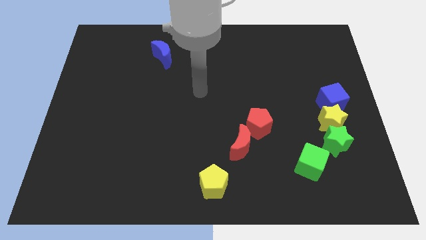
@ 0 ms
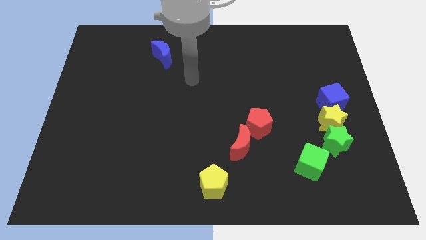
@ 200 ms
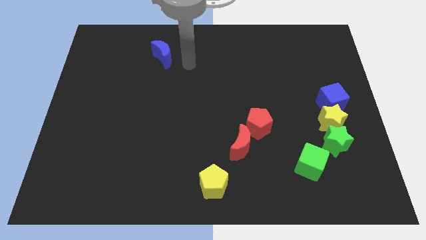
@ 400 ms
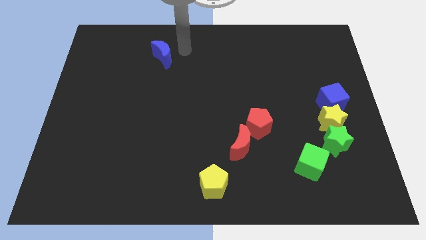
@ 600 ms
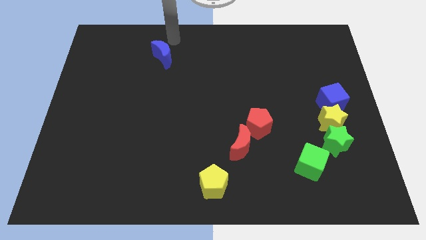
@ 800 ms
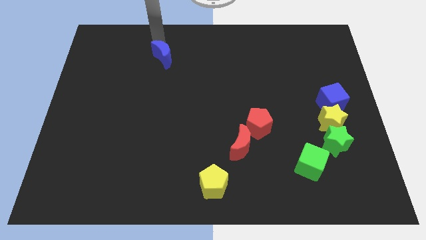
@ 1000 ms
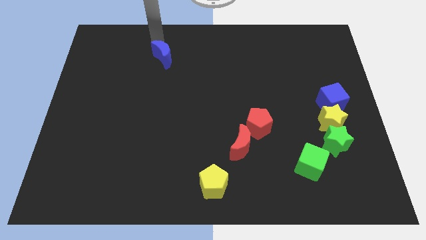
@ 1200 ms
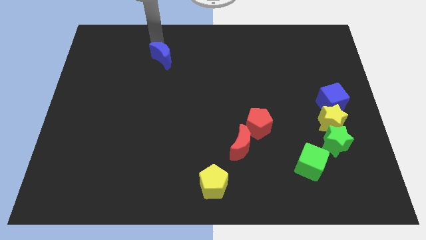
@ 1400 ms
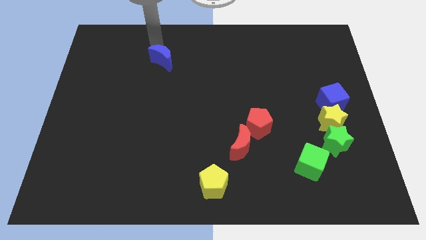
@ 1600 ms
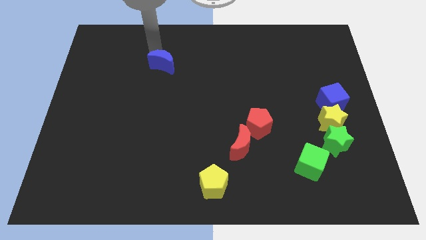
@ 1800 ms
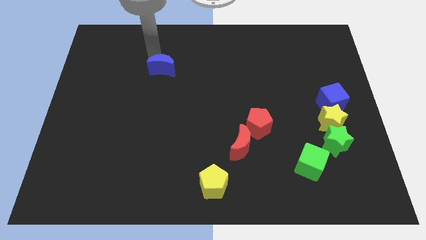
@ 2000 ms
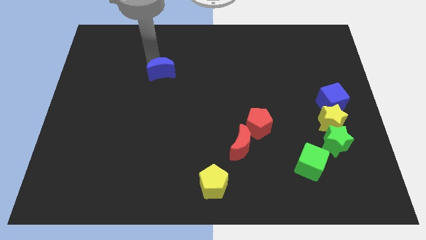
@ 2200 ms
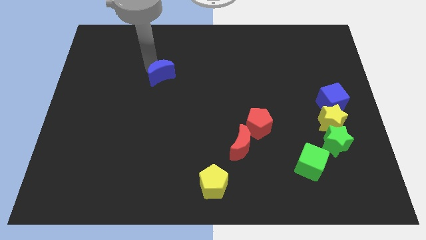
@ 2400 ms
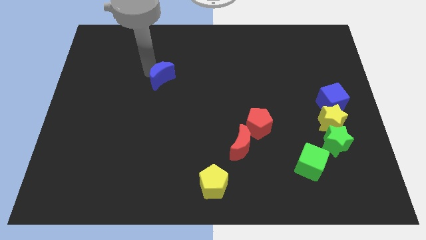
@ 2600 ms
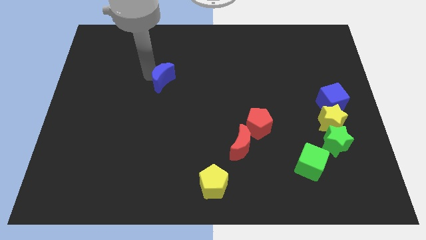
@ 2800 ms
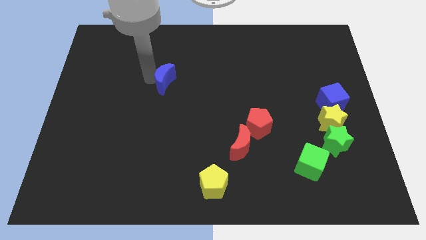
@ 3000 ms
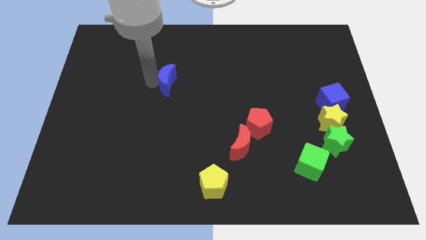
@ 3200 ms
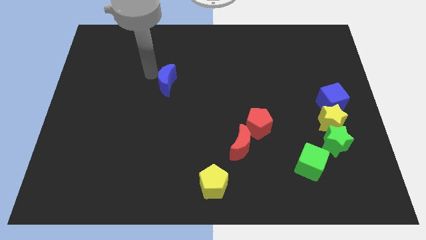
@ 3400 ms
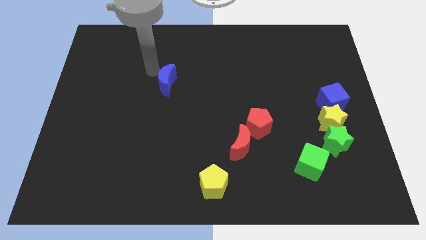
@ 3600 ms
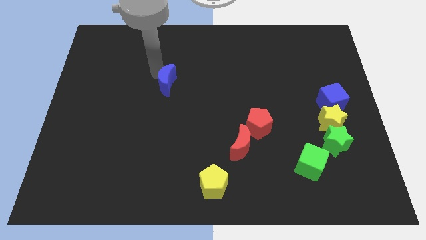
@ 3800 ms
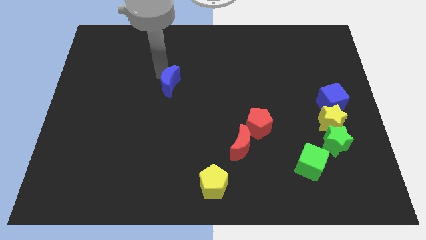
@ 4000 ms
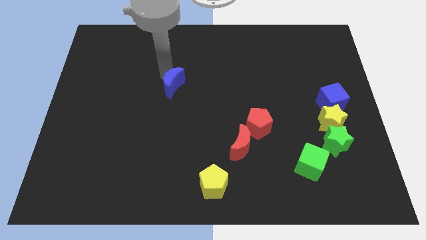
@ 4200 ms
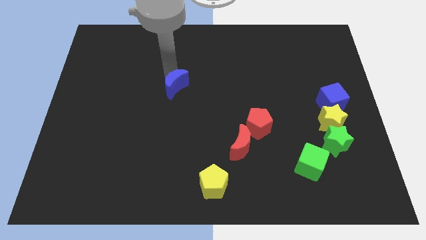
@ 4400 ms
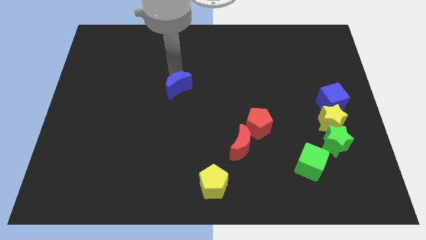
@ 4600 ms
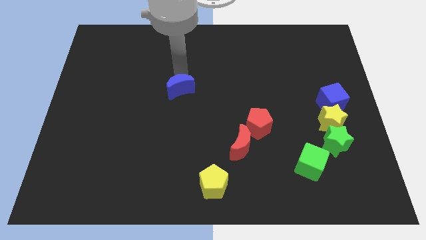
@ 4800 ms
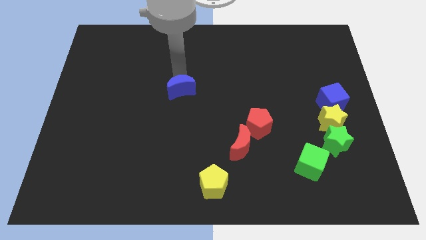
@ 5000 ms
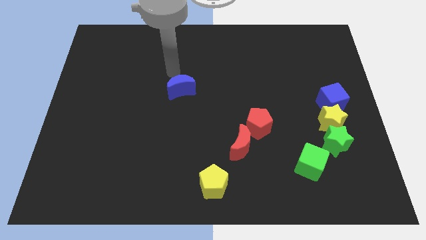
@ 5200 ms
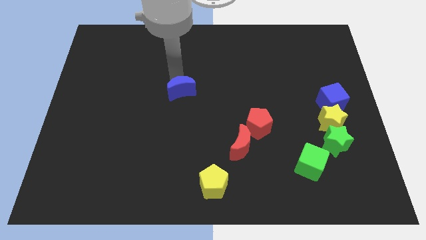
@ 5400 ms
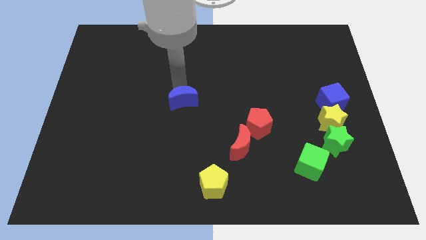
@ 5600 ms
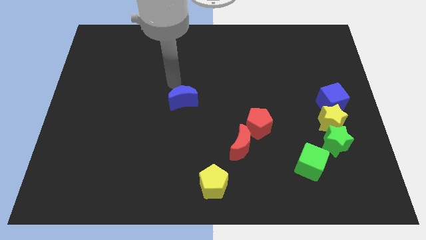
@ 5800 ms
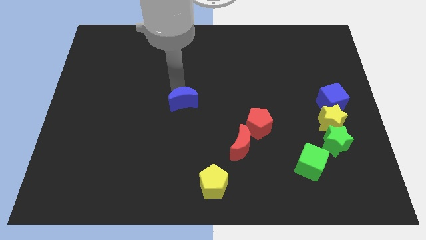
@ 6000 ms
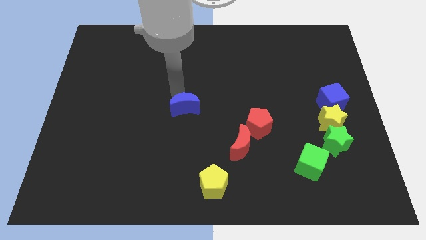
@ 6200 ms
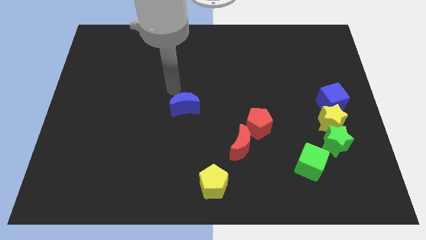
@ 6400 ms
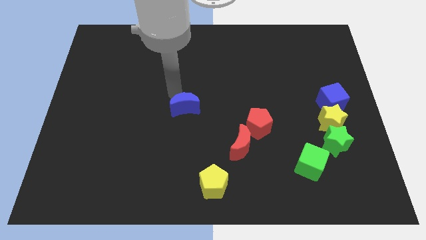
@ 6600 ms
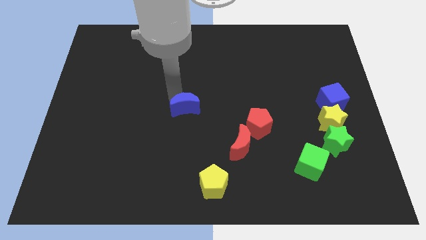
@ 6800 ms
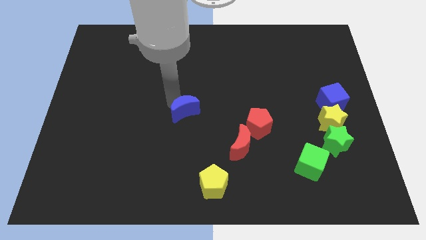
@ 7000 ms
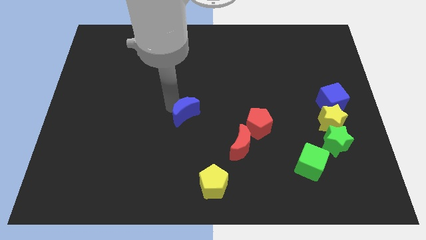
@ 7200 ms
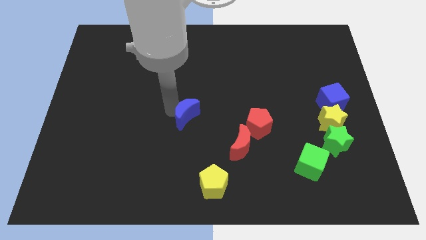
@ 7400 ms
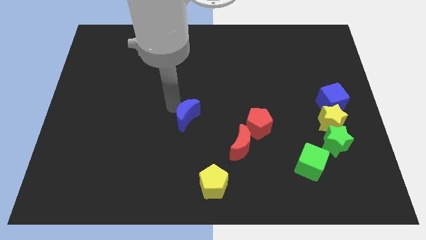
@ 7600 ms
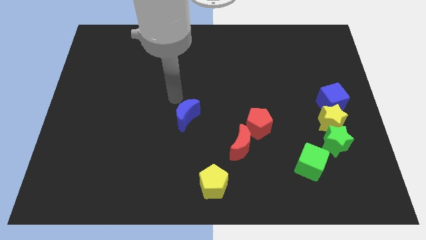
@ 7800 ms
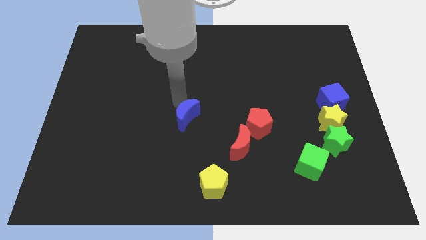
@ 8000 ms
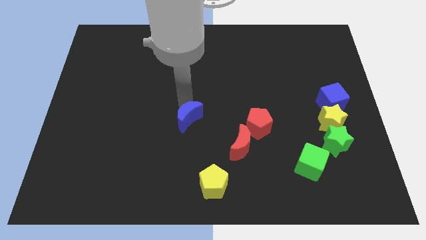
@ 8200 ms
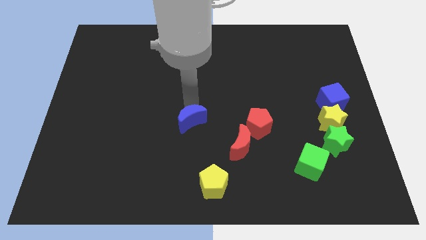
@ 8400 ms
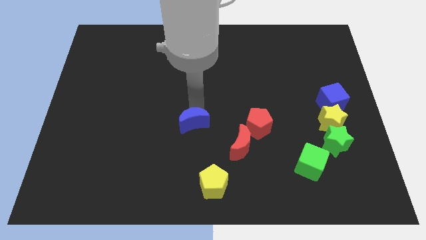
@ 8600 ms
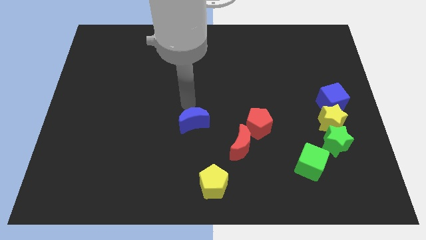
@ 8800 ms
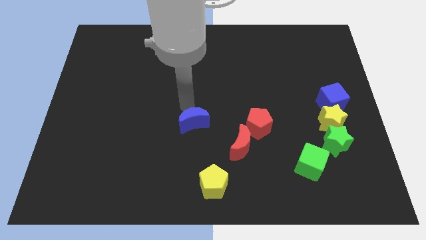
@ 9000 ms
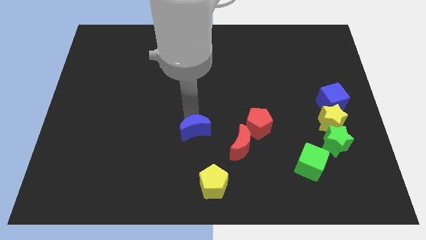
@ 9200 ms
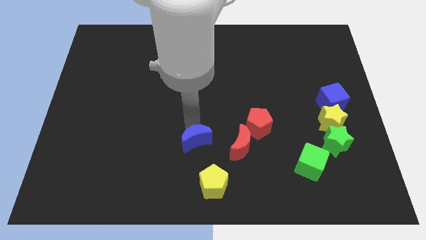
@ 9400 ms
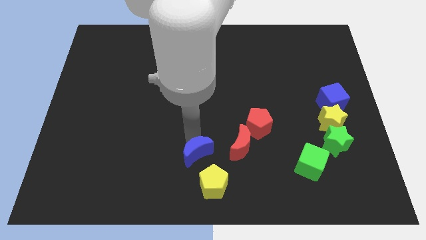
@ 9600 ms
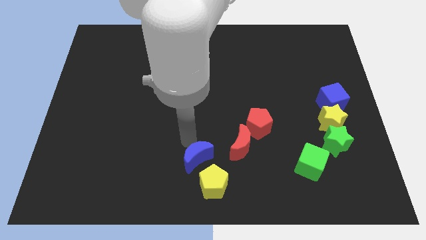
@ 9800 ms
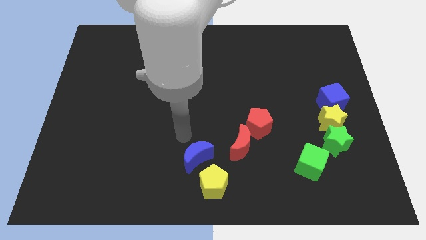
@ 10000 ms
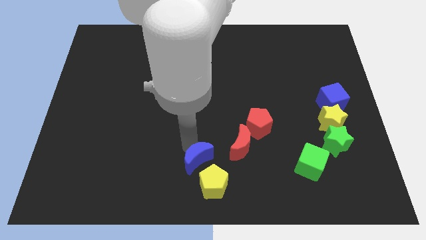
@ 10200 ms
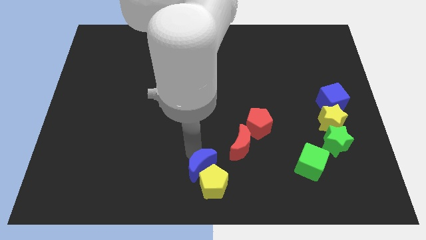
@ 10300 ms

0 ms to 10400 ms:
push the blue moon next to the yellow pentagon

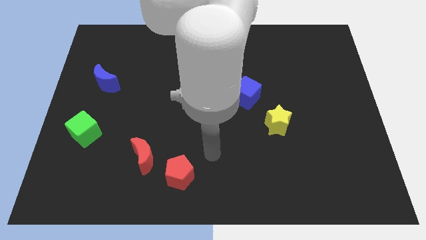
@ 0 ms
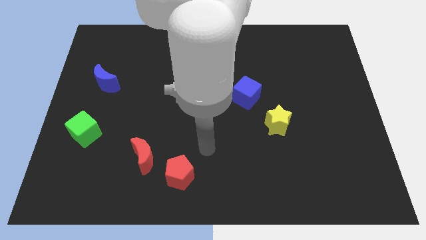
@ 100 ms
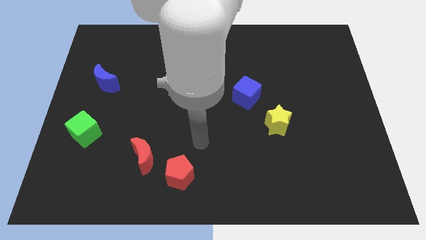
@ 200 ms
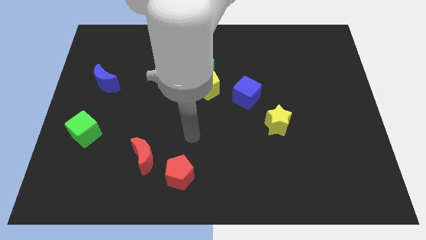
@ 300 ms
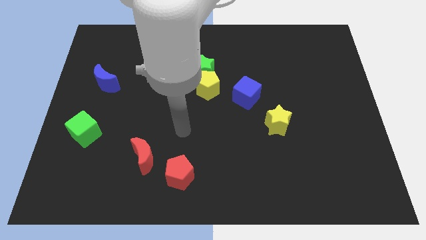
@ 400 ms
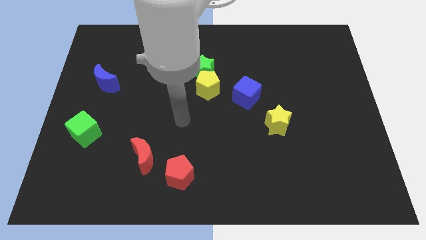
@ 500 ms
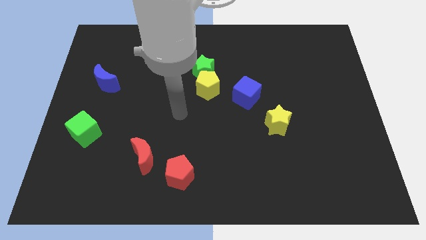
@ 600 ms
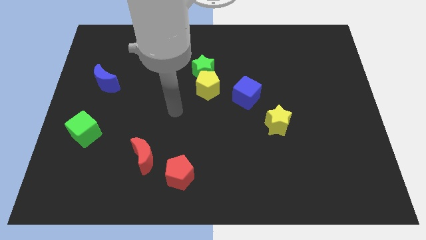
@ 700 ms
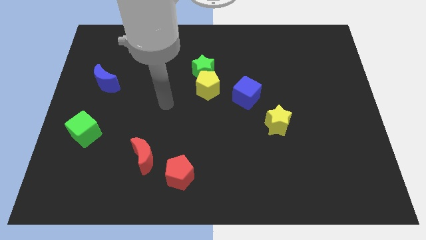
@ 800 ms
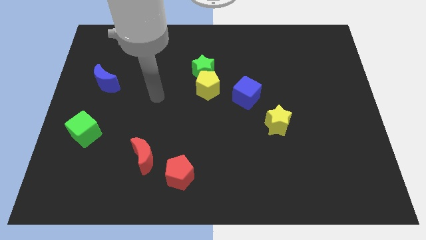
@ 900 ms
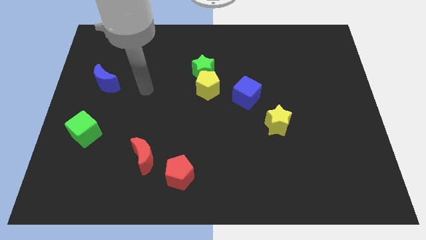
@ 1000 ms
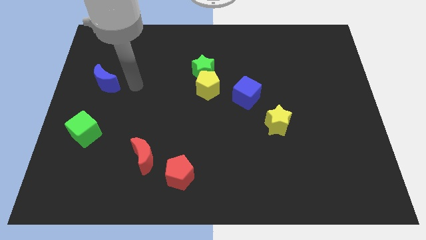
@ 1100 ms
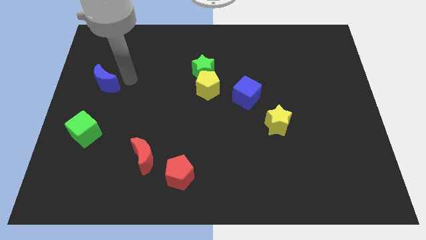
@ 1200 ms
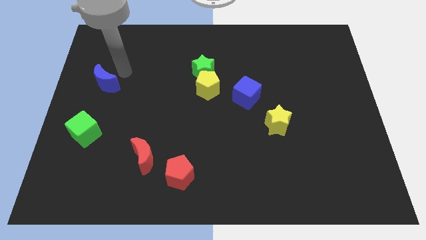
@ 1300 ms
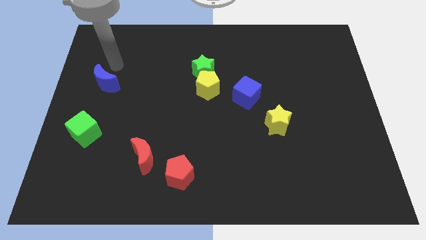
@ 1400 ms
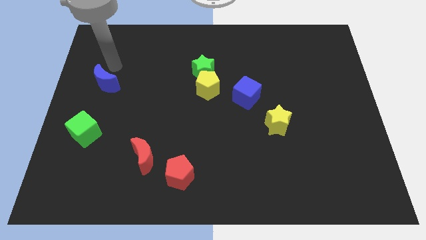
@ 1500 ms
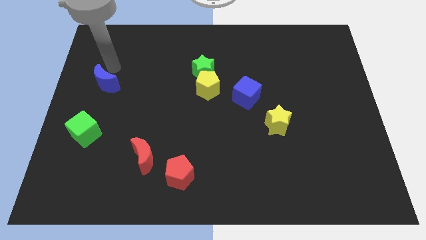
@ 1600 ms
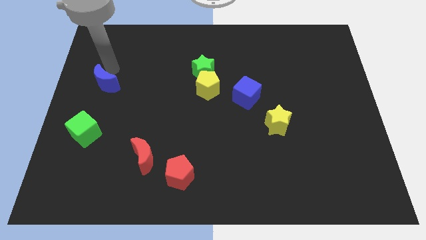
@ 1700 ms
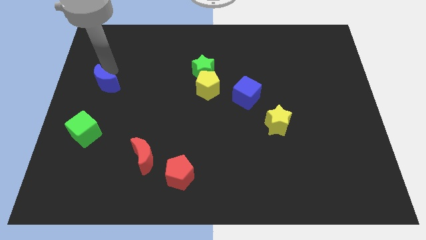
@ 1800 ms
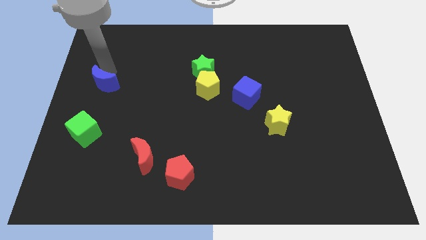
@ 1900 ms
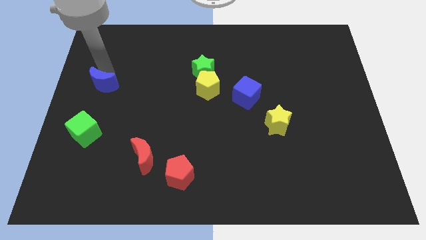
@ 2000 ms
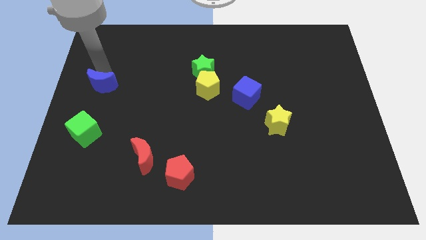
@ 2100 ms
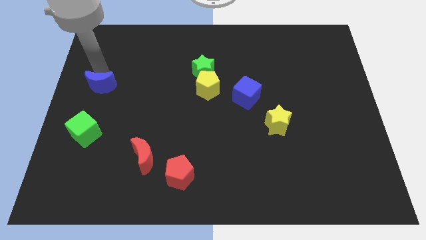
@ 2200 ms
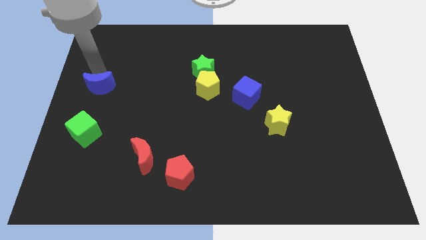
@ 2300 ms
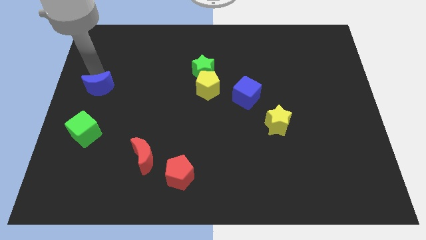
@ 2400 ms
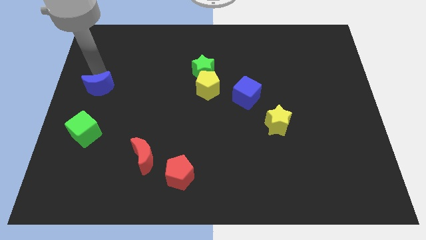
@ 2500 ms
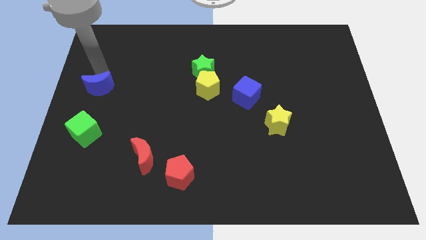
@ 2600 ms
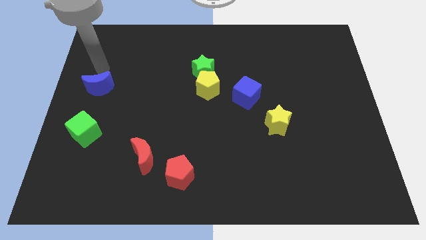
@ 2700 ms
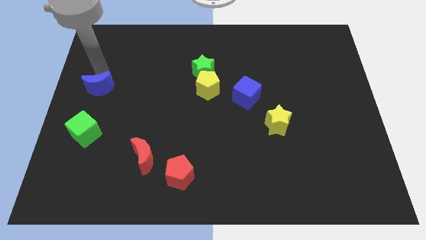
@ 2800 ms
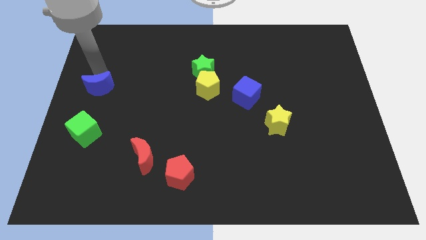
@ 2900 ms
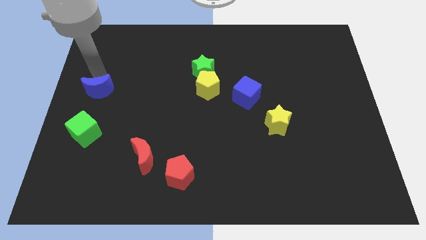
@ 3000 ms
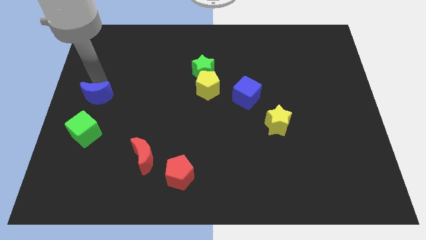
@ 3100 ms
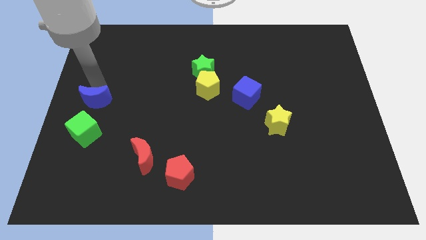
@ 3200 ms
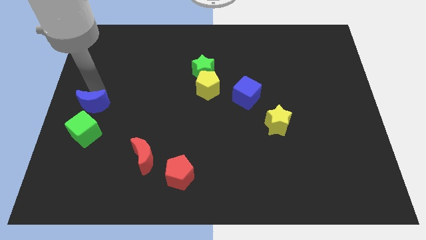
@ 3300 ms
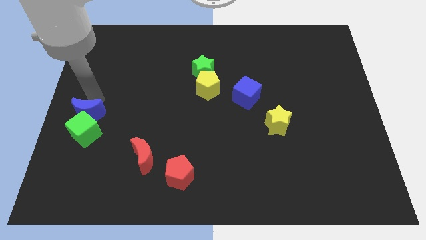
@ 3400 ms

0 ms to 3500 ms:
push the blue moon to the green cube
